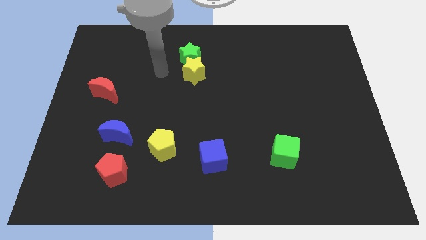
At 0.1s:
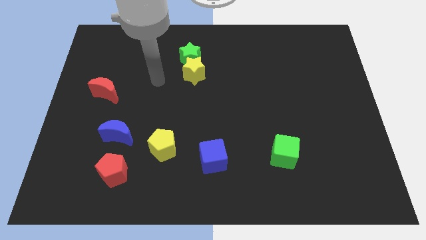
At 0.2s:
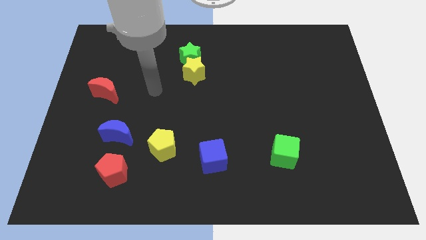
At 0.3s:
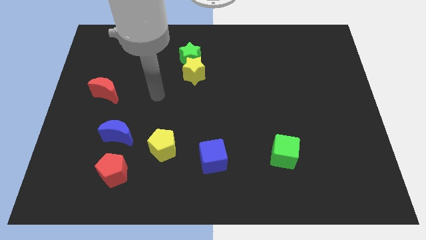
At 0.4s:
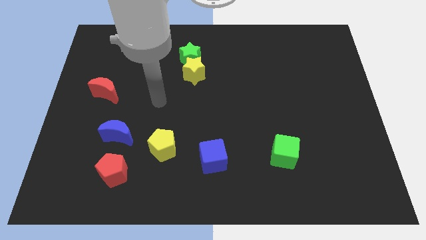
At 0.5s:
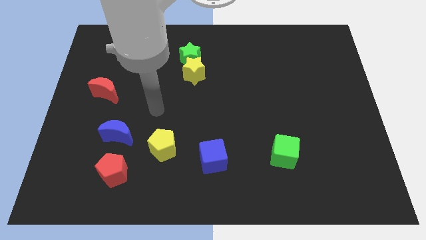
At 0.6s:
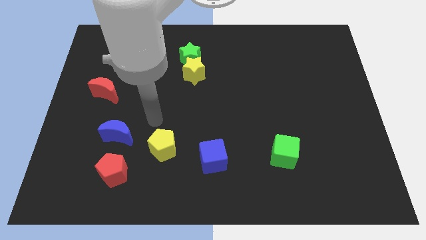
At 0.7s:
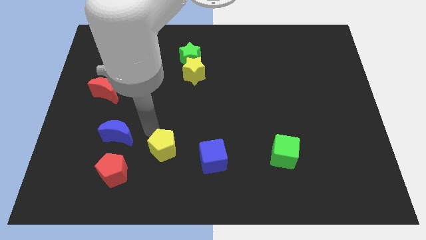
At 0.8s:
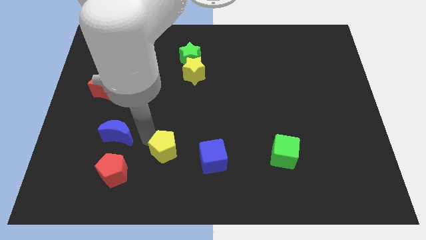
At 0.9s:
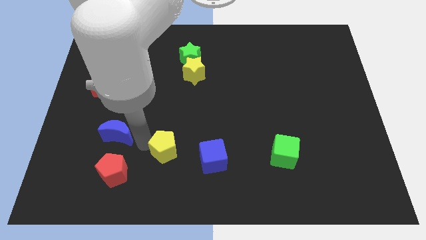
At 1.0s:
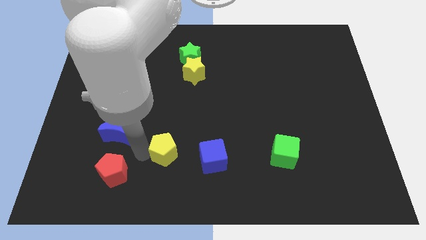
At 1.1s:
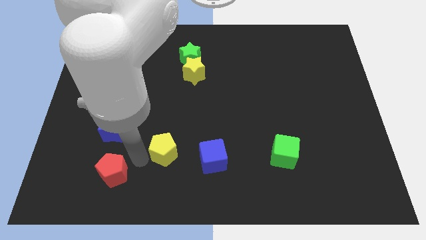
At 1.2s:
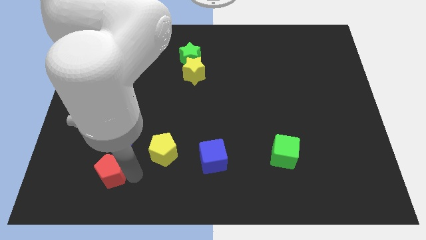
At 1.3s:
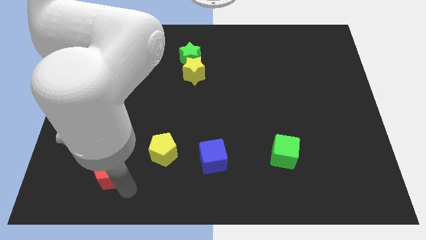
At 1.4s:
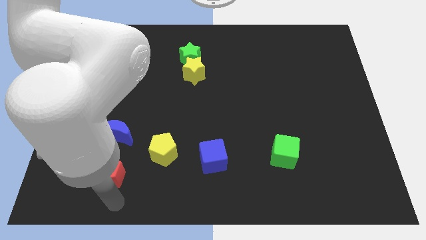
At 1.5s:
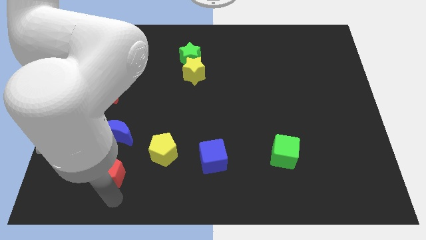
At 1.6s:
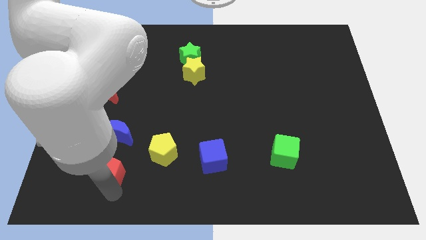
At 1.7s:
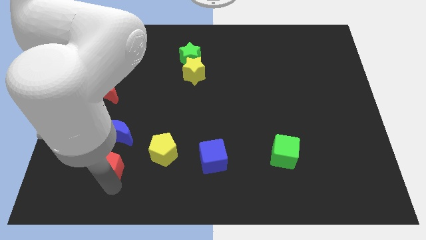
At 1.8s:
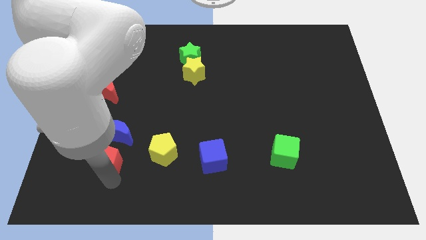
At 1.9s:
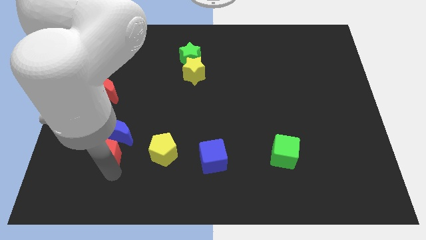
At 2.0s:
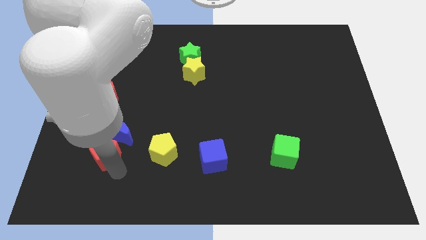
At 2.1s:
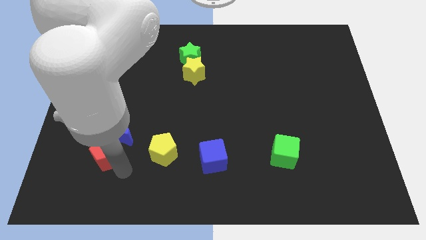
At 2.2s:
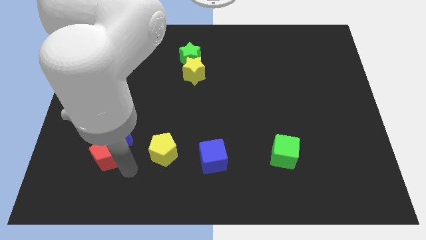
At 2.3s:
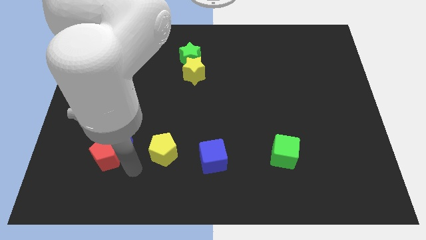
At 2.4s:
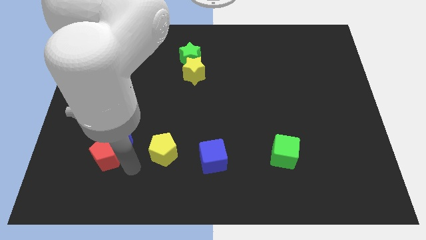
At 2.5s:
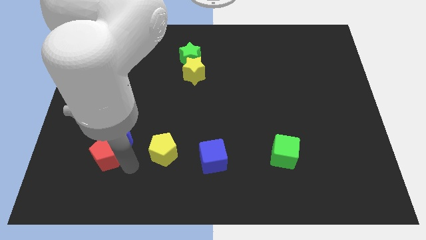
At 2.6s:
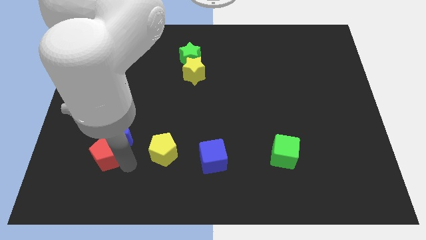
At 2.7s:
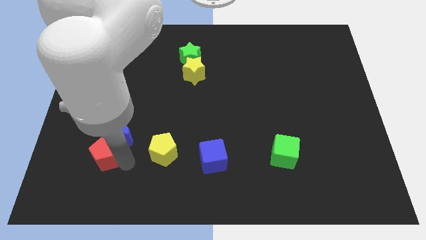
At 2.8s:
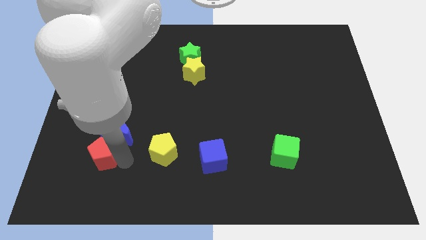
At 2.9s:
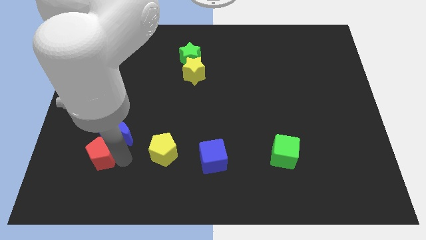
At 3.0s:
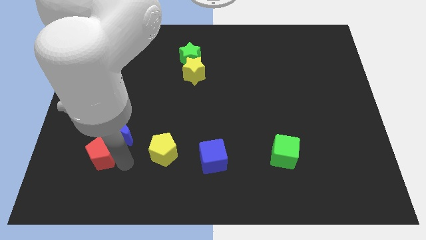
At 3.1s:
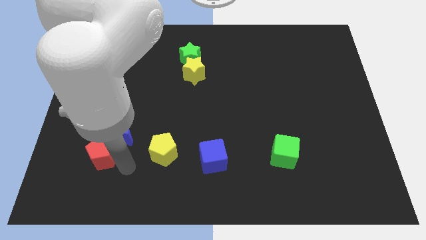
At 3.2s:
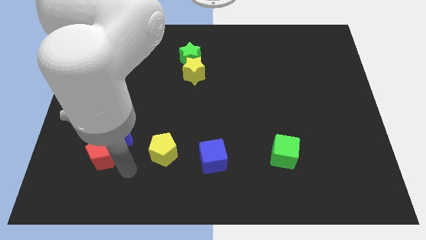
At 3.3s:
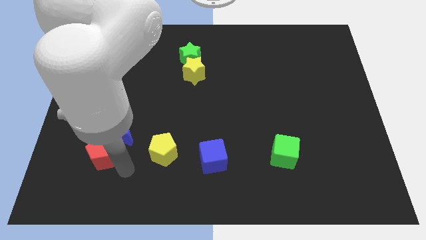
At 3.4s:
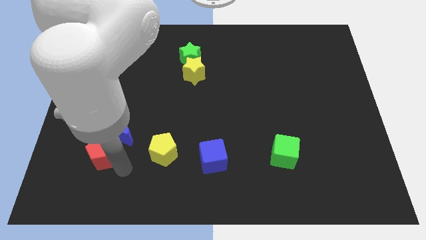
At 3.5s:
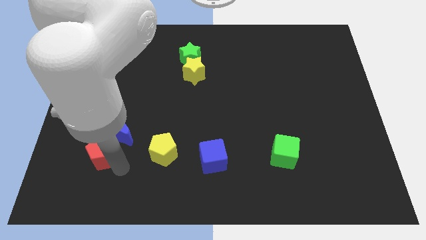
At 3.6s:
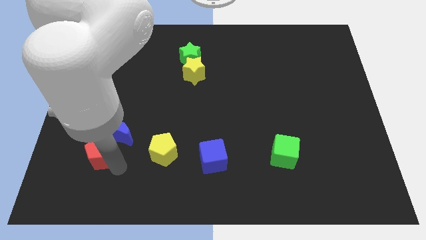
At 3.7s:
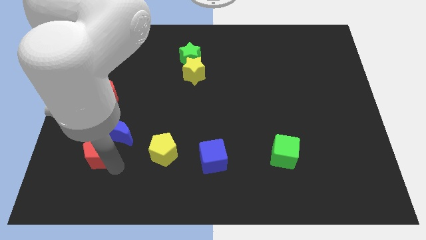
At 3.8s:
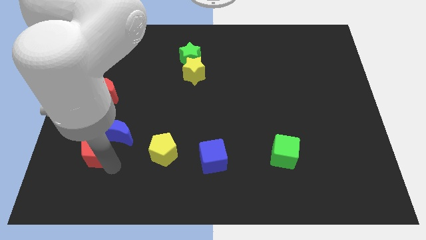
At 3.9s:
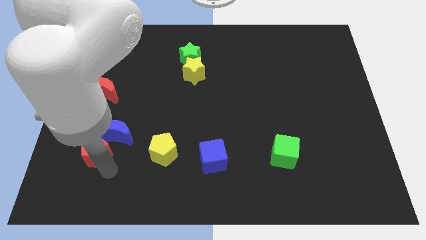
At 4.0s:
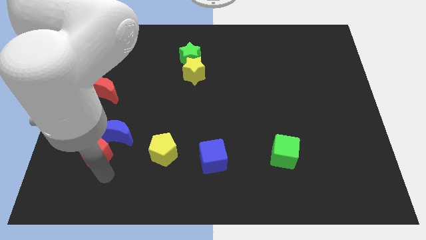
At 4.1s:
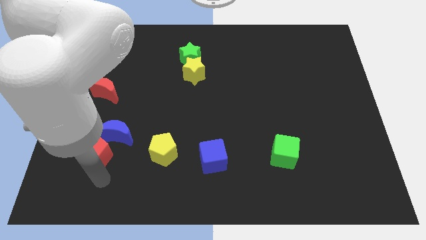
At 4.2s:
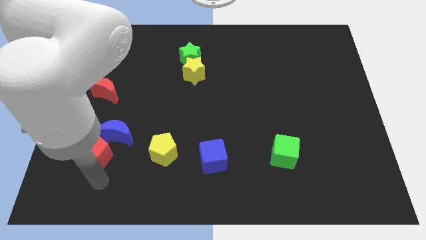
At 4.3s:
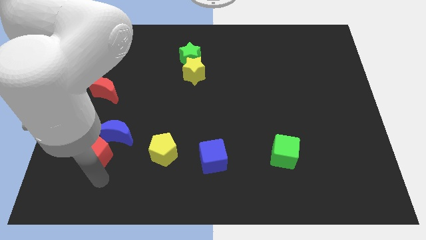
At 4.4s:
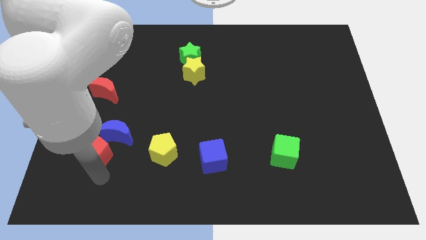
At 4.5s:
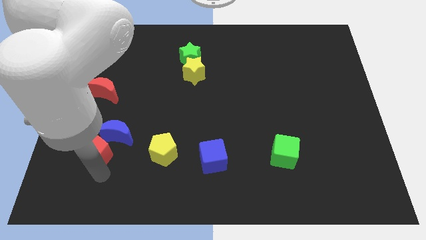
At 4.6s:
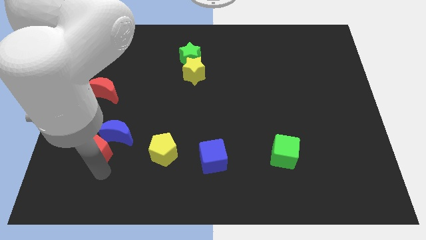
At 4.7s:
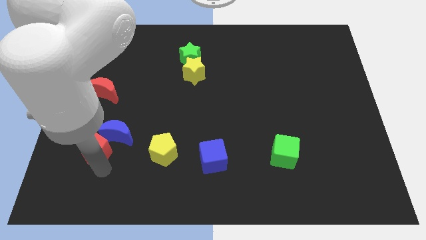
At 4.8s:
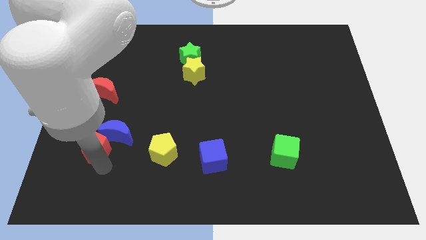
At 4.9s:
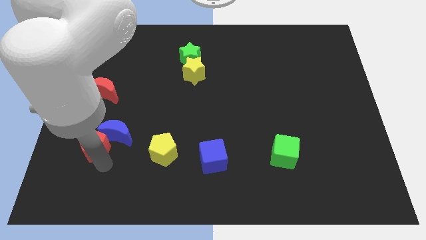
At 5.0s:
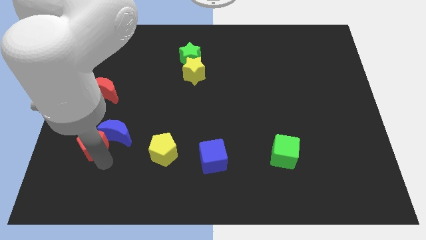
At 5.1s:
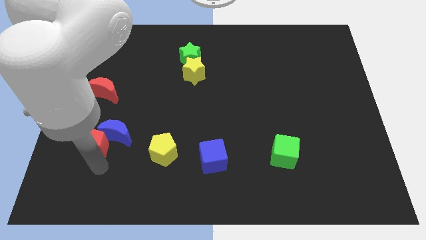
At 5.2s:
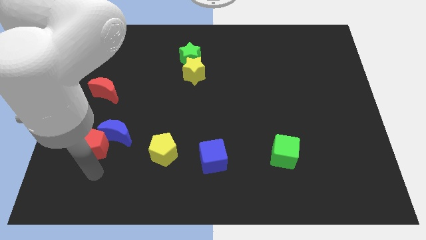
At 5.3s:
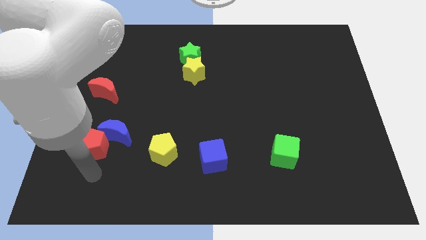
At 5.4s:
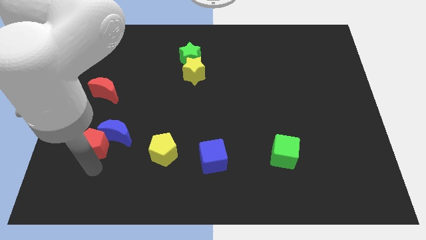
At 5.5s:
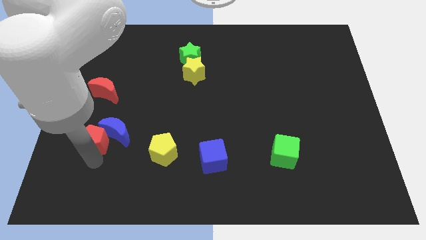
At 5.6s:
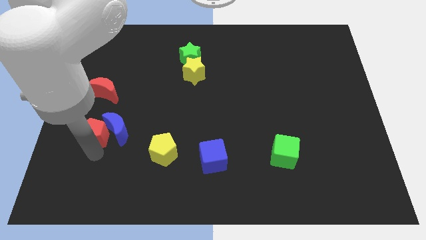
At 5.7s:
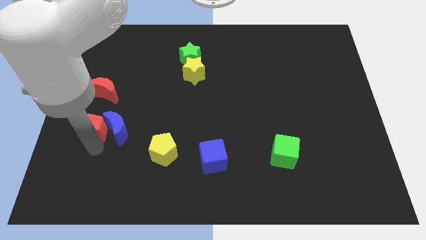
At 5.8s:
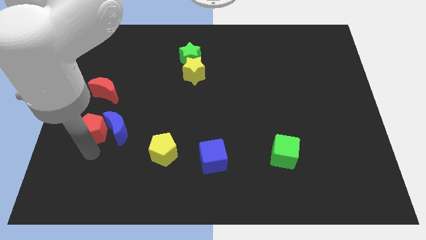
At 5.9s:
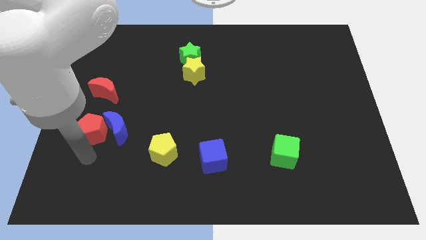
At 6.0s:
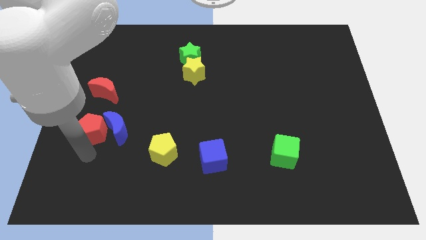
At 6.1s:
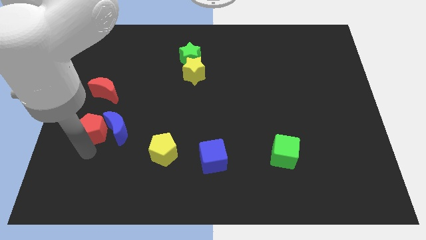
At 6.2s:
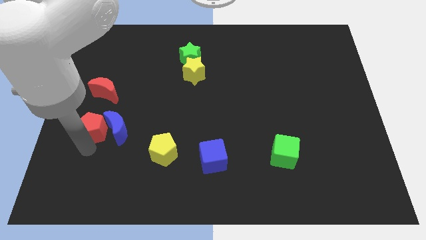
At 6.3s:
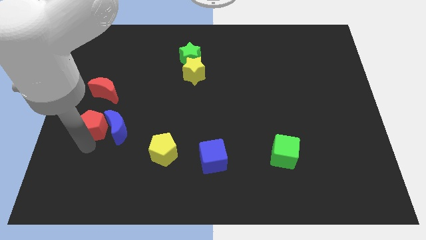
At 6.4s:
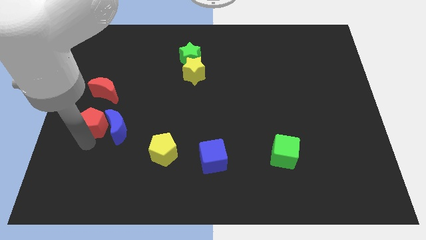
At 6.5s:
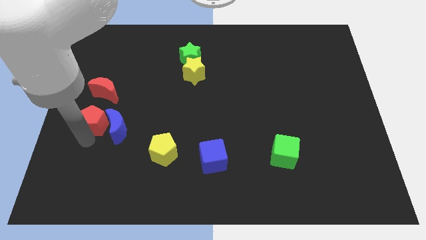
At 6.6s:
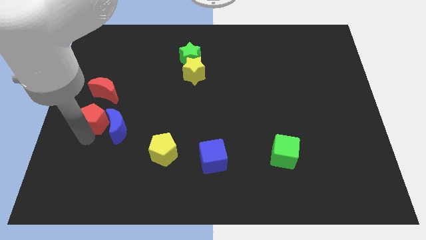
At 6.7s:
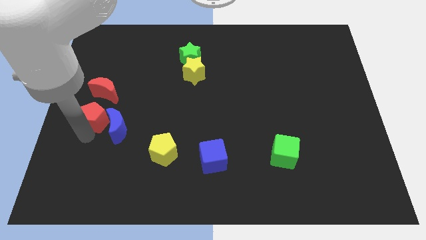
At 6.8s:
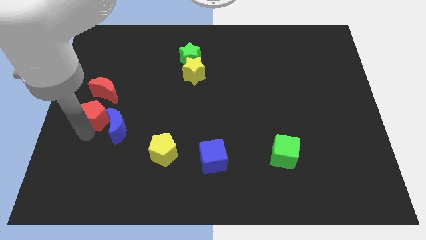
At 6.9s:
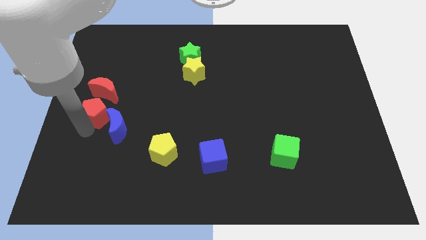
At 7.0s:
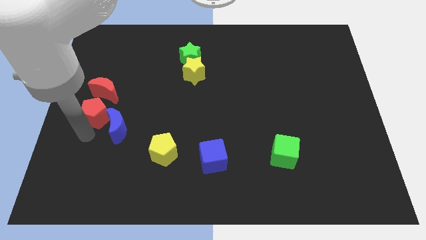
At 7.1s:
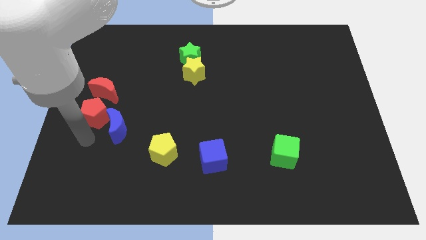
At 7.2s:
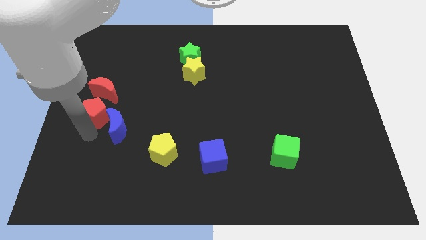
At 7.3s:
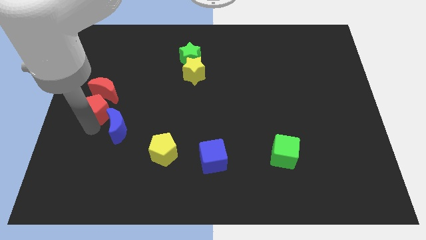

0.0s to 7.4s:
push the red pentagon close to the red moon
